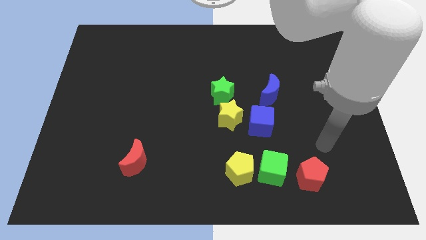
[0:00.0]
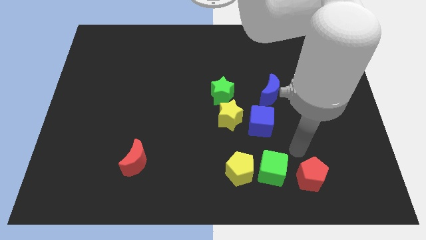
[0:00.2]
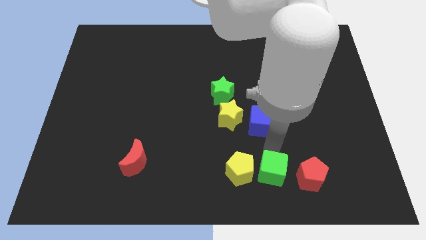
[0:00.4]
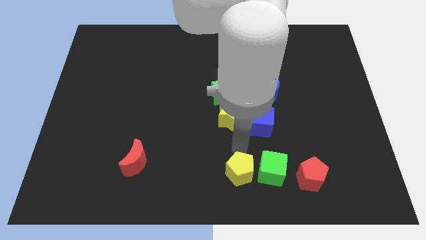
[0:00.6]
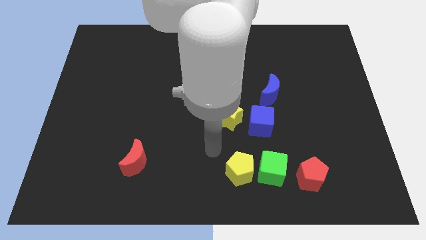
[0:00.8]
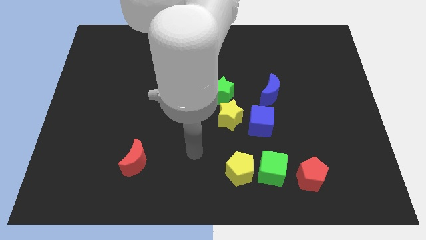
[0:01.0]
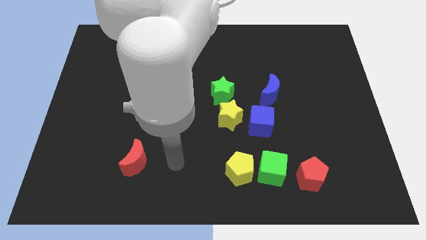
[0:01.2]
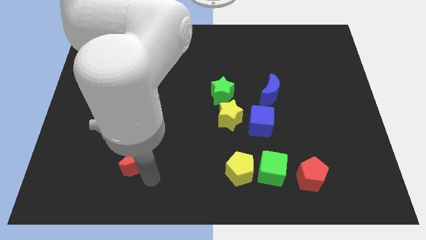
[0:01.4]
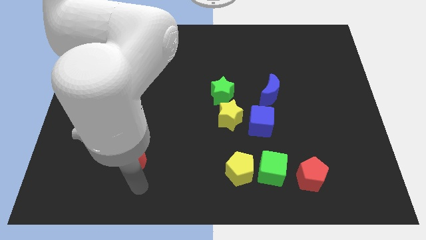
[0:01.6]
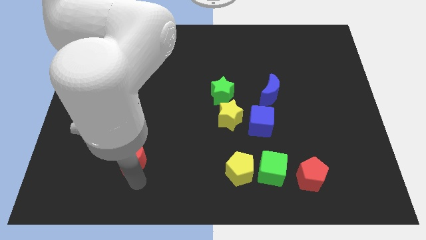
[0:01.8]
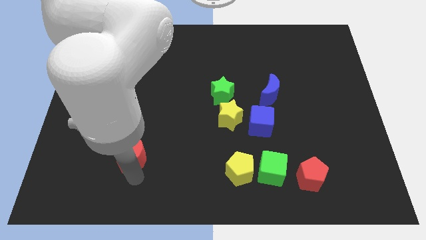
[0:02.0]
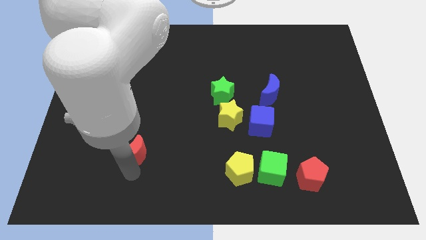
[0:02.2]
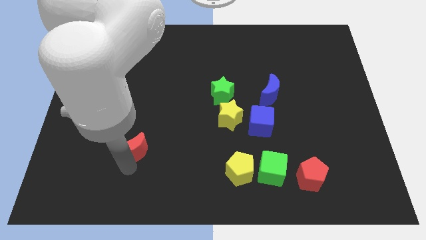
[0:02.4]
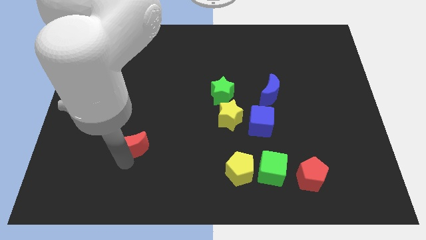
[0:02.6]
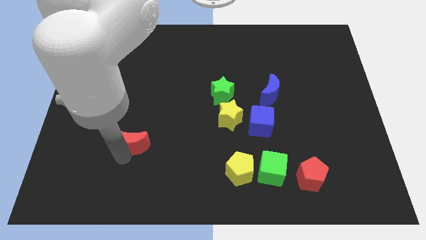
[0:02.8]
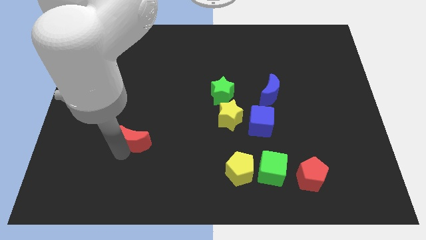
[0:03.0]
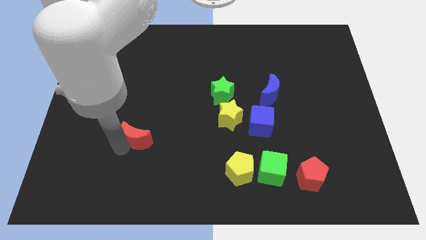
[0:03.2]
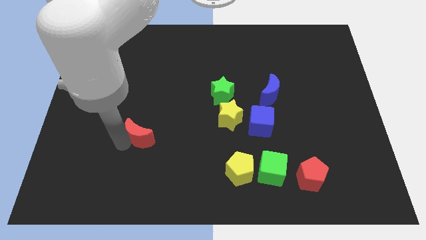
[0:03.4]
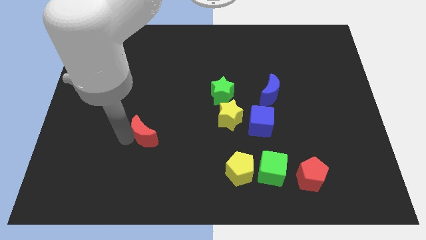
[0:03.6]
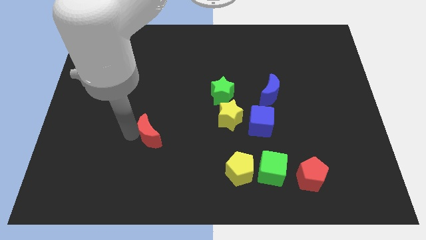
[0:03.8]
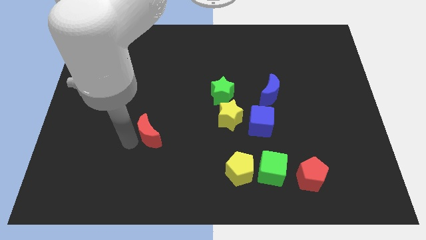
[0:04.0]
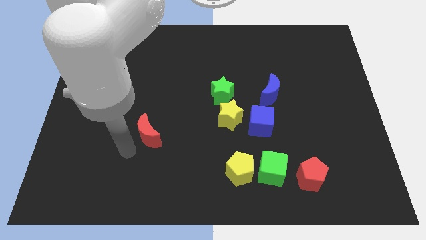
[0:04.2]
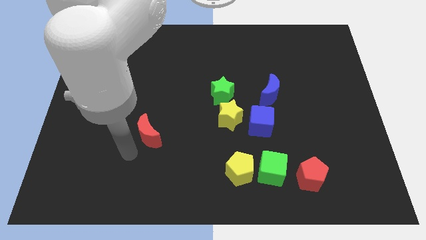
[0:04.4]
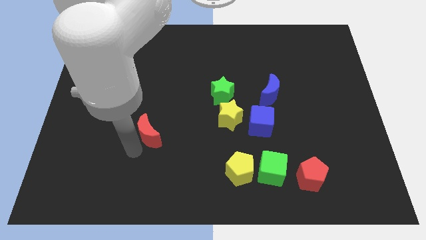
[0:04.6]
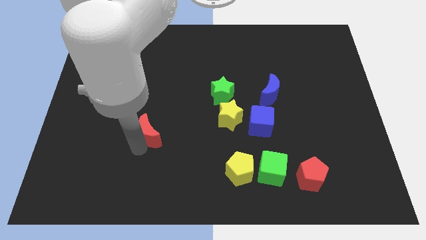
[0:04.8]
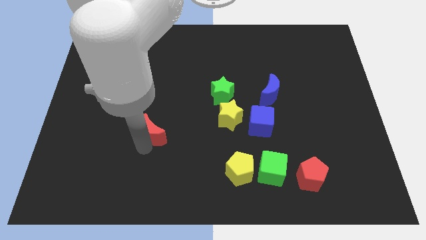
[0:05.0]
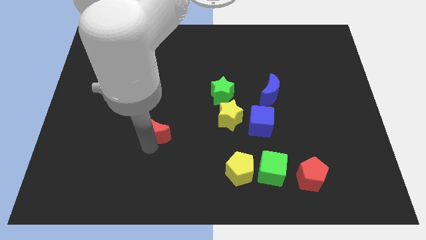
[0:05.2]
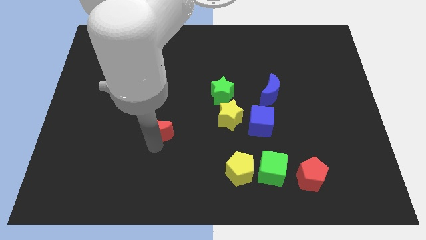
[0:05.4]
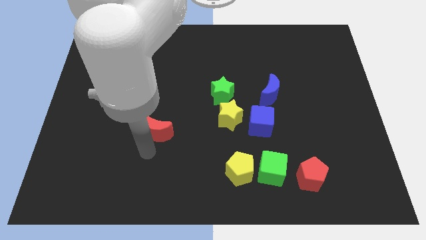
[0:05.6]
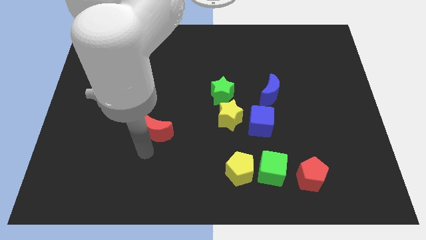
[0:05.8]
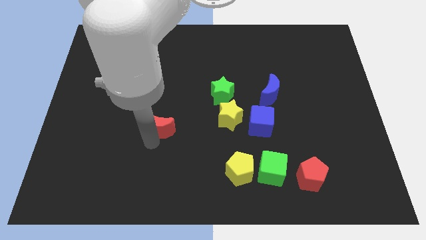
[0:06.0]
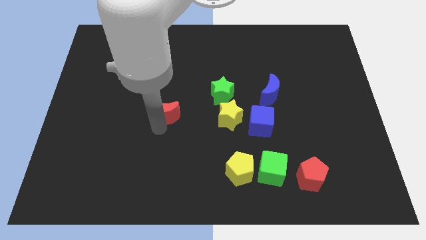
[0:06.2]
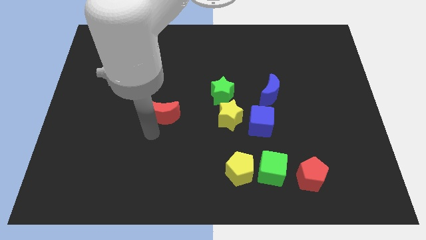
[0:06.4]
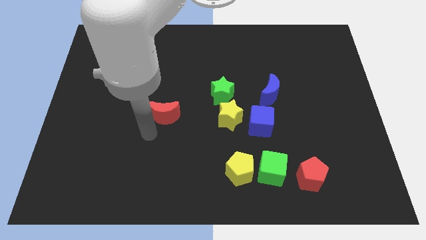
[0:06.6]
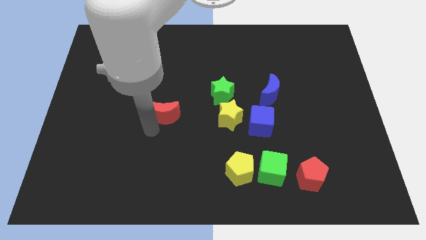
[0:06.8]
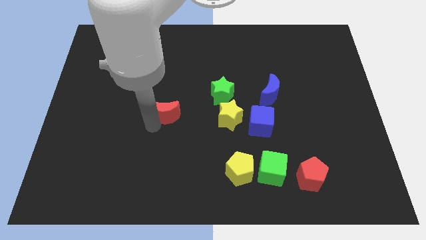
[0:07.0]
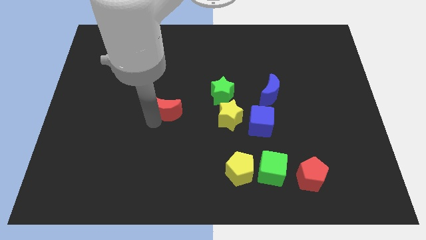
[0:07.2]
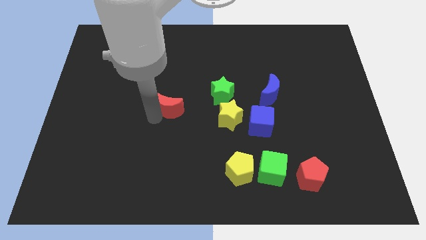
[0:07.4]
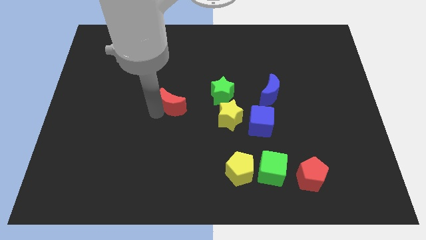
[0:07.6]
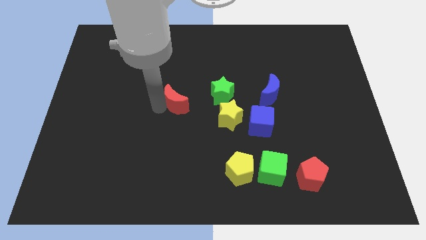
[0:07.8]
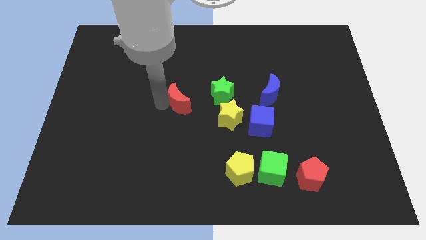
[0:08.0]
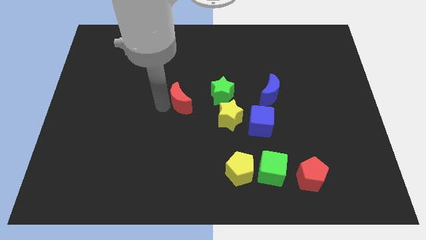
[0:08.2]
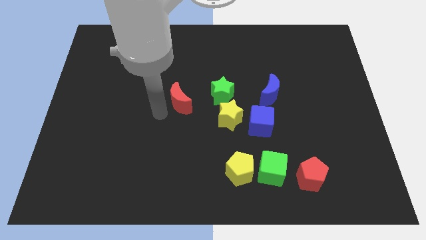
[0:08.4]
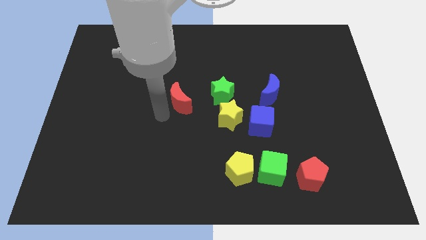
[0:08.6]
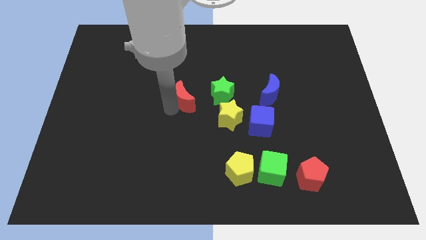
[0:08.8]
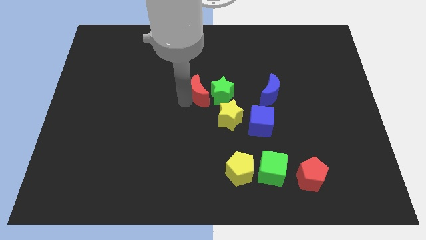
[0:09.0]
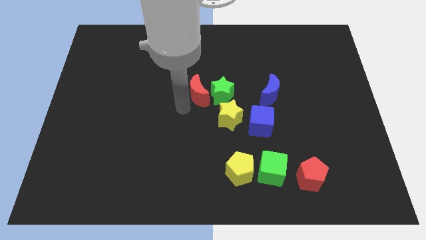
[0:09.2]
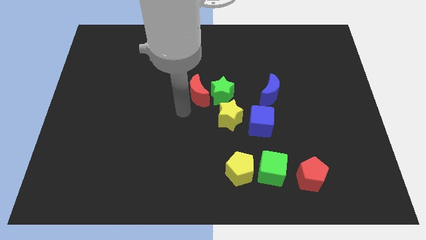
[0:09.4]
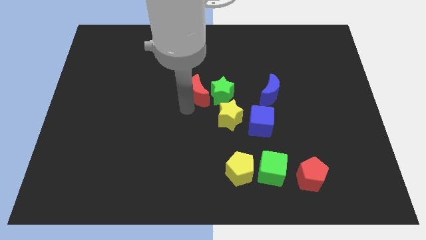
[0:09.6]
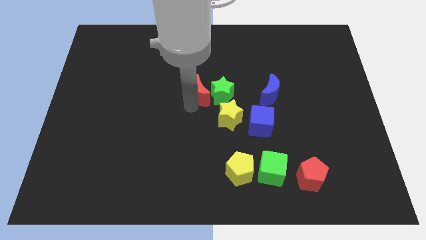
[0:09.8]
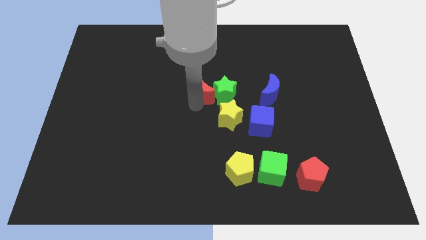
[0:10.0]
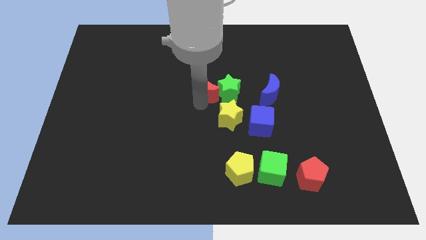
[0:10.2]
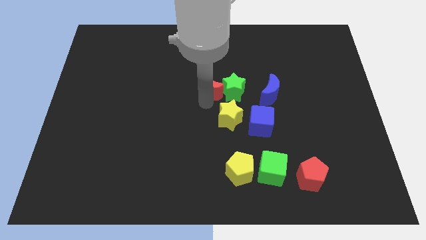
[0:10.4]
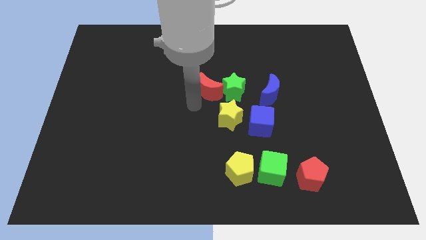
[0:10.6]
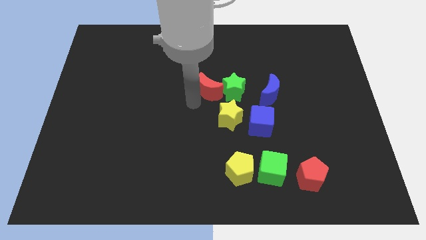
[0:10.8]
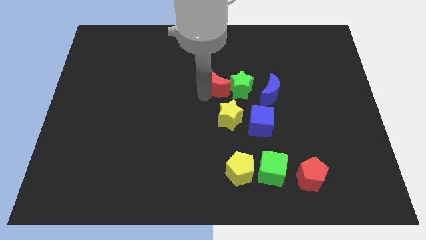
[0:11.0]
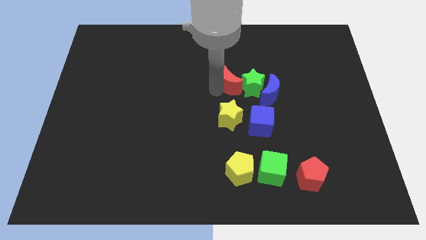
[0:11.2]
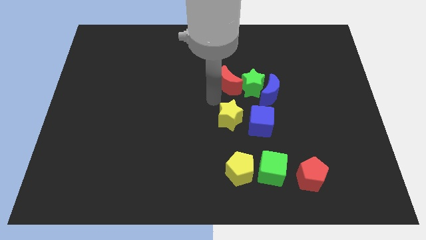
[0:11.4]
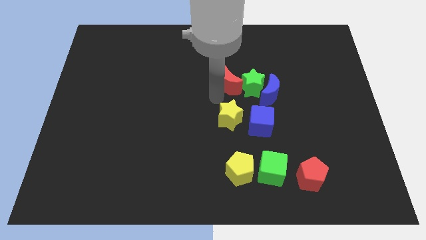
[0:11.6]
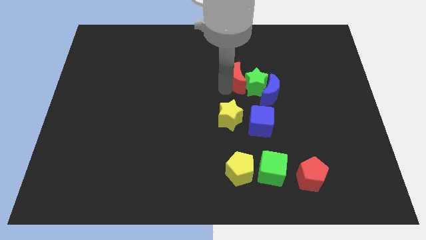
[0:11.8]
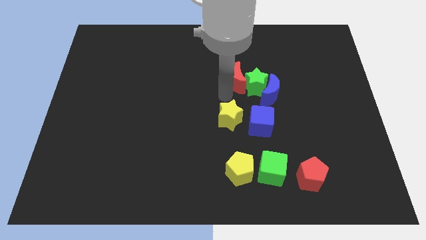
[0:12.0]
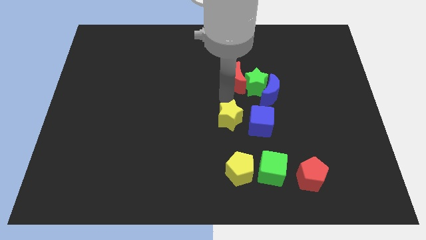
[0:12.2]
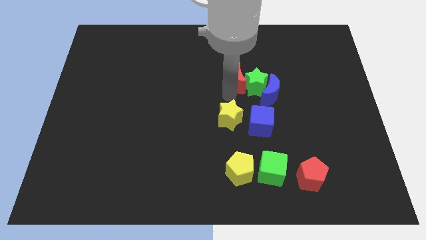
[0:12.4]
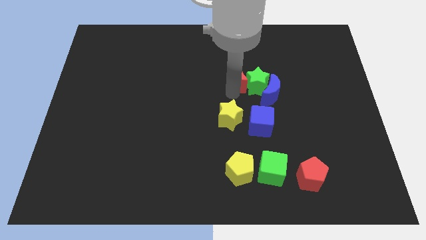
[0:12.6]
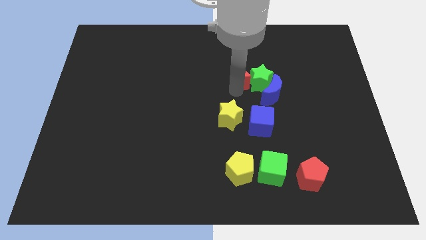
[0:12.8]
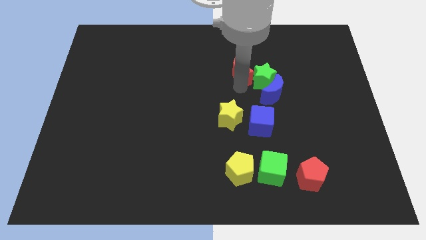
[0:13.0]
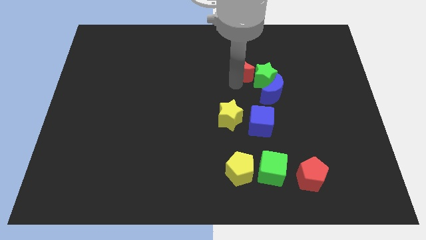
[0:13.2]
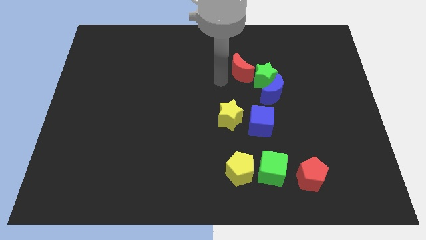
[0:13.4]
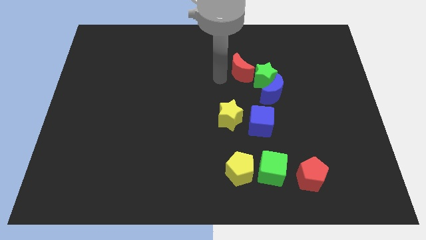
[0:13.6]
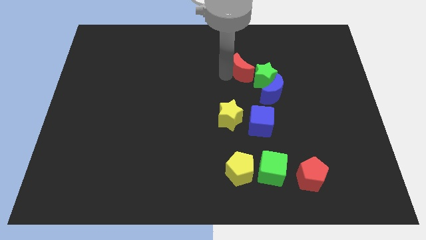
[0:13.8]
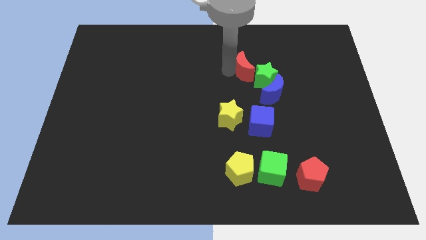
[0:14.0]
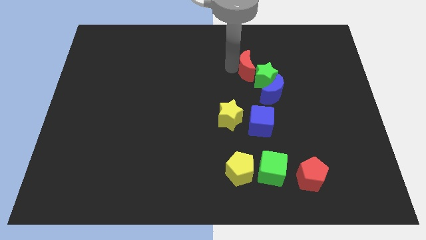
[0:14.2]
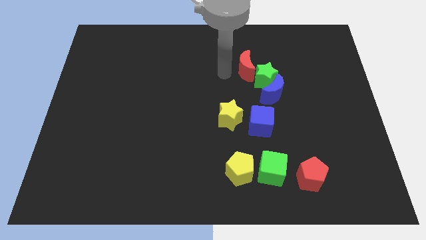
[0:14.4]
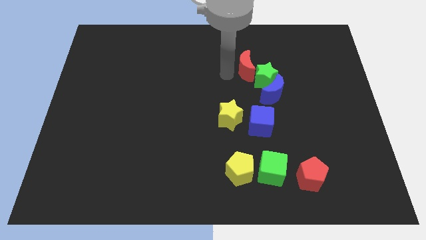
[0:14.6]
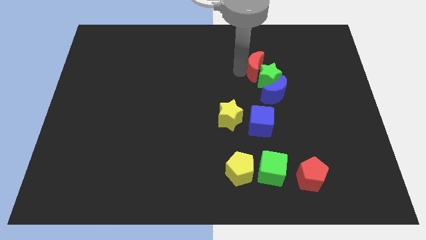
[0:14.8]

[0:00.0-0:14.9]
push the red moon above the blue moon
